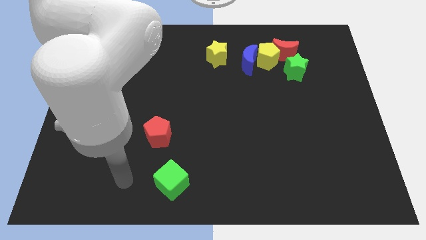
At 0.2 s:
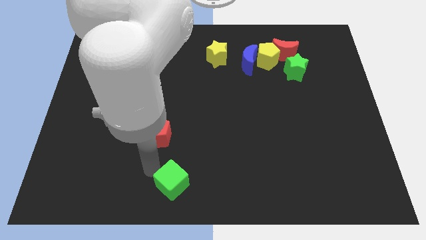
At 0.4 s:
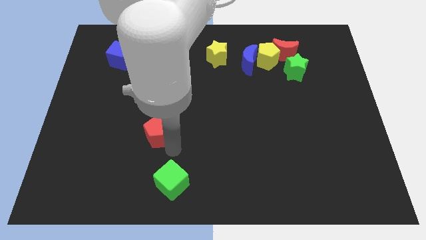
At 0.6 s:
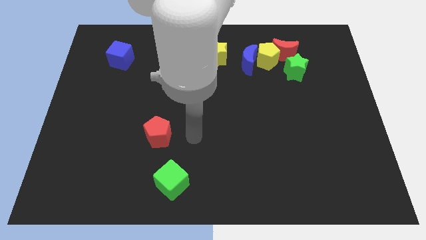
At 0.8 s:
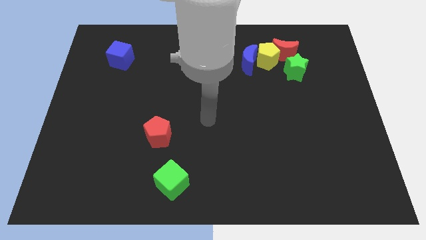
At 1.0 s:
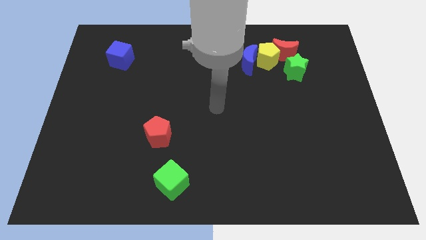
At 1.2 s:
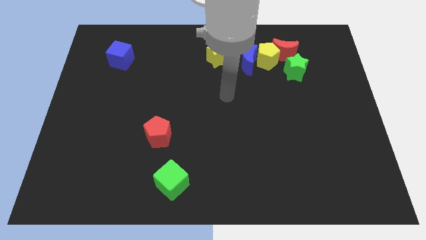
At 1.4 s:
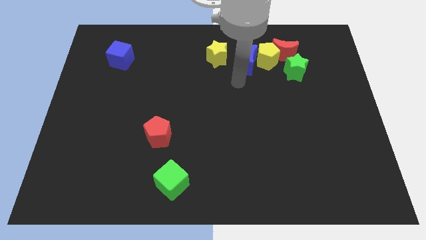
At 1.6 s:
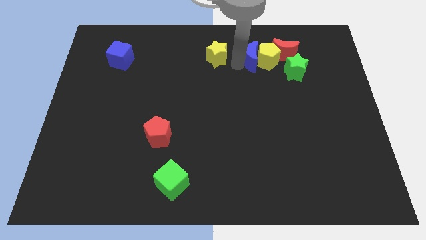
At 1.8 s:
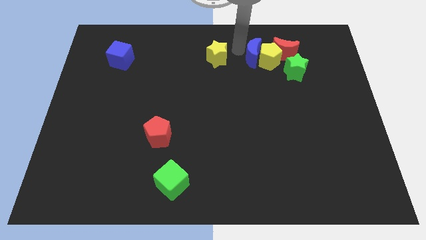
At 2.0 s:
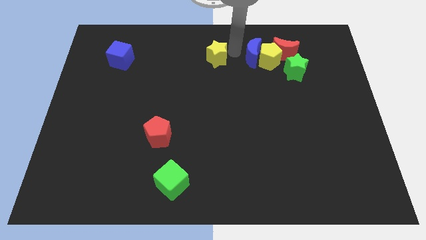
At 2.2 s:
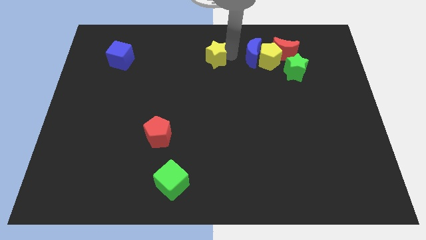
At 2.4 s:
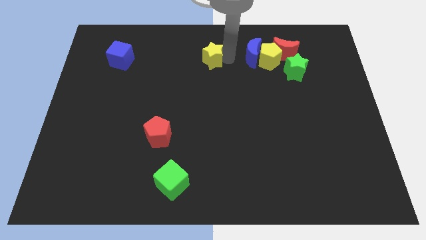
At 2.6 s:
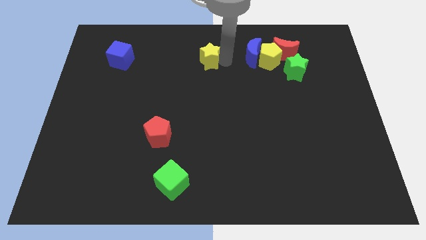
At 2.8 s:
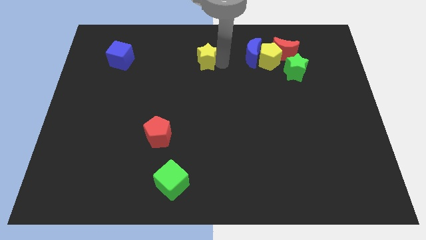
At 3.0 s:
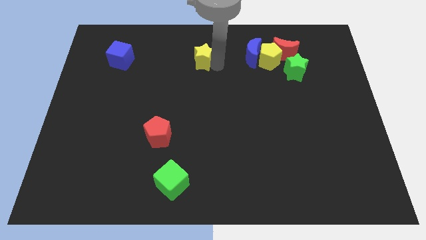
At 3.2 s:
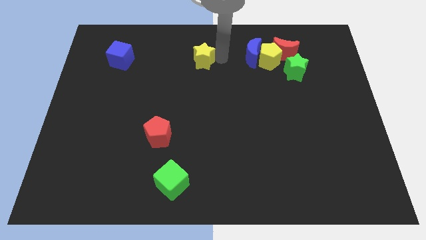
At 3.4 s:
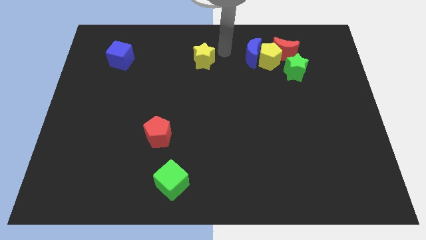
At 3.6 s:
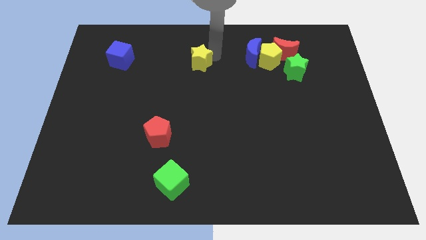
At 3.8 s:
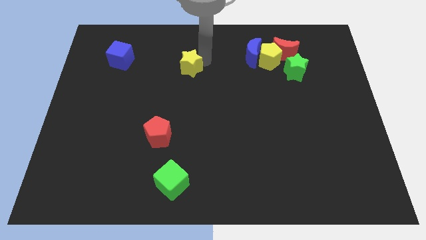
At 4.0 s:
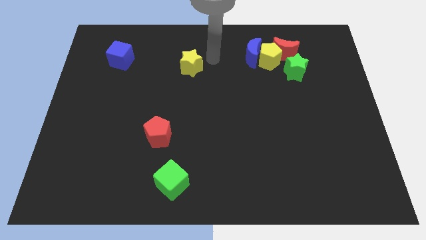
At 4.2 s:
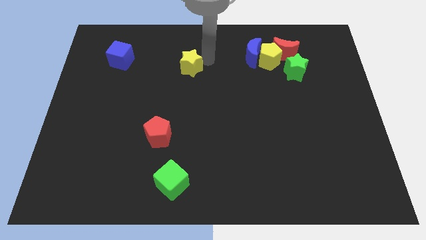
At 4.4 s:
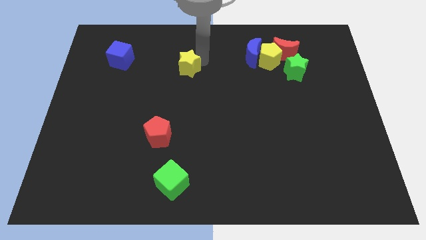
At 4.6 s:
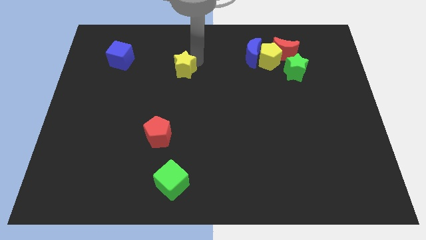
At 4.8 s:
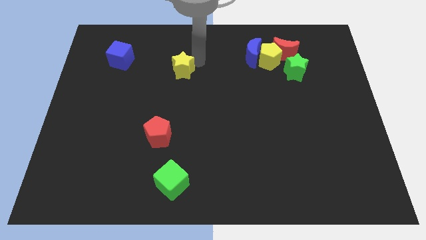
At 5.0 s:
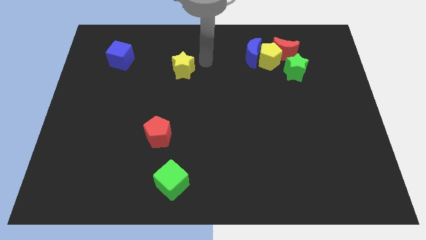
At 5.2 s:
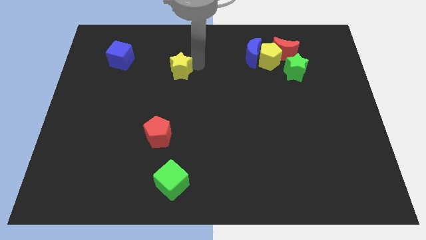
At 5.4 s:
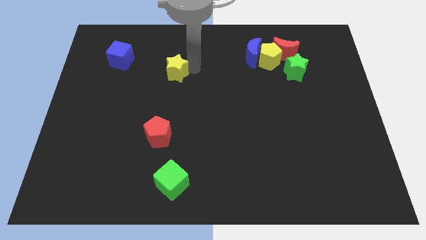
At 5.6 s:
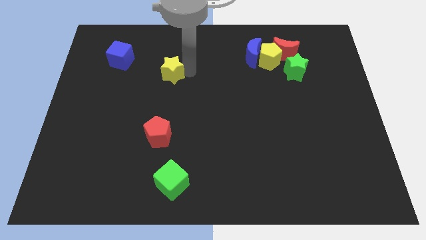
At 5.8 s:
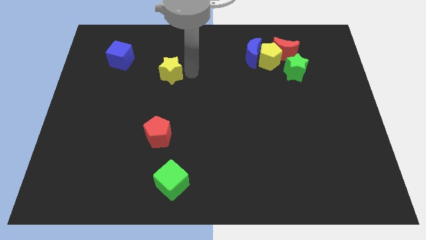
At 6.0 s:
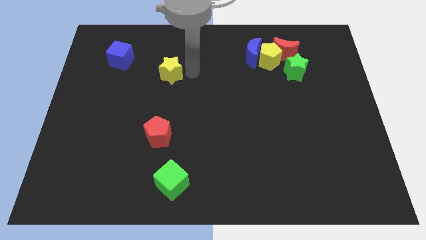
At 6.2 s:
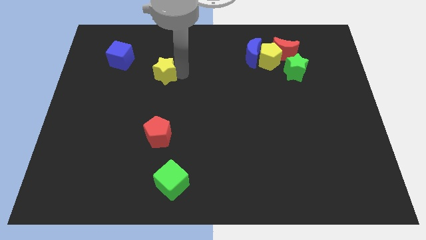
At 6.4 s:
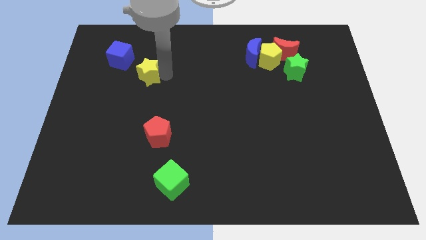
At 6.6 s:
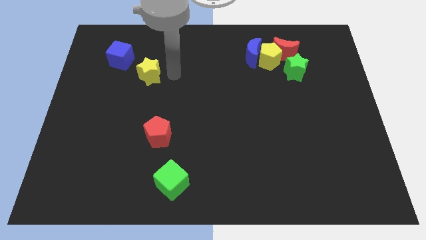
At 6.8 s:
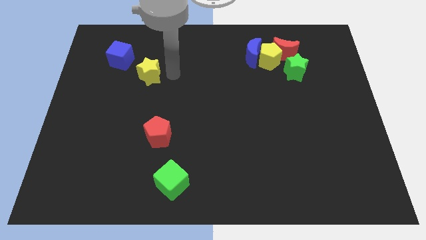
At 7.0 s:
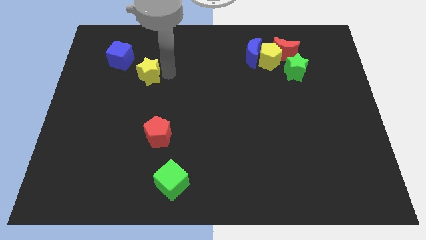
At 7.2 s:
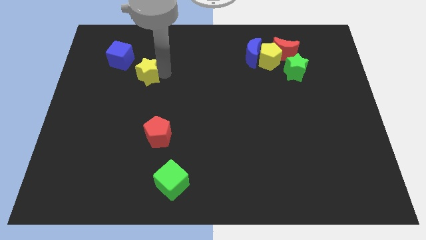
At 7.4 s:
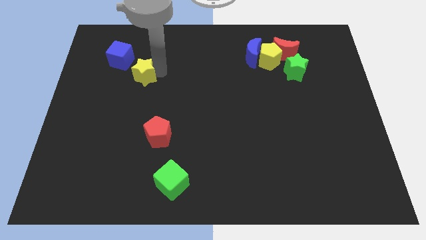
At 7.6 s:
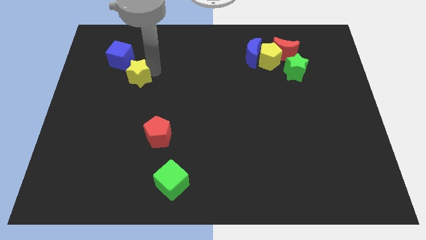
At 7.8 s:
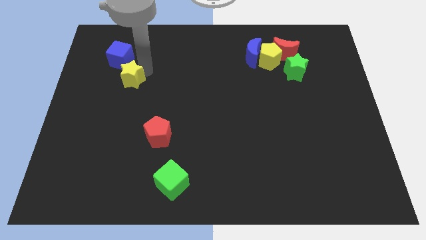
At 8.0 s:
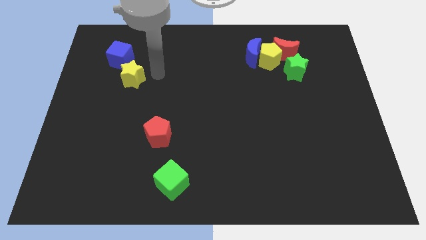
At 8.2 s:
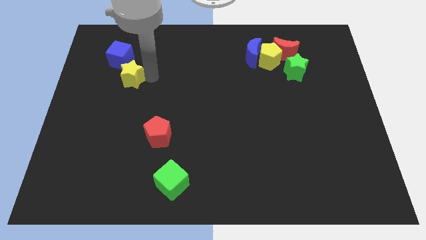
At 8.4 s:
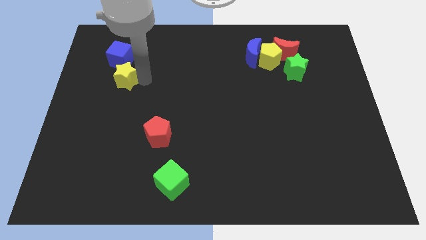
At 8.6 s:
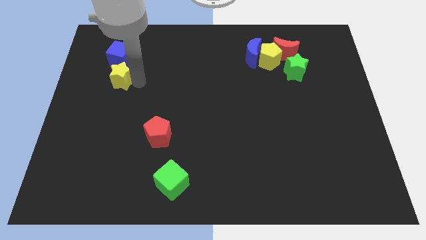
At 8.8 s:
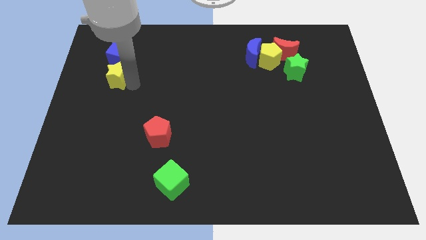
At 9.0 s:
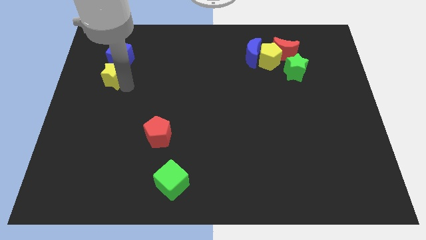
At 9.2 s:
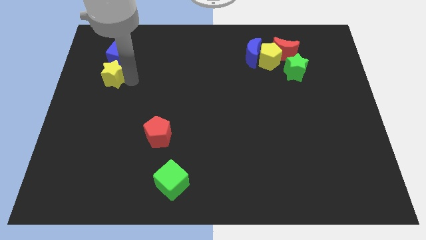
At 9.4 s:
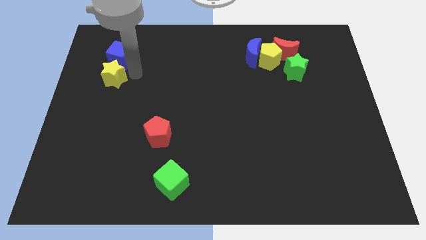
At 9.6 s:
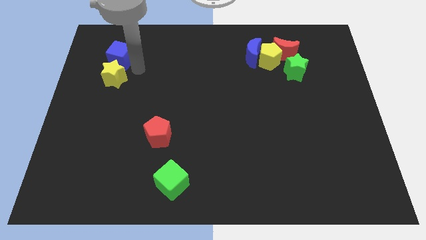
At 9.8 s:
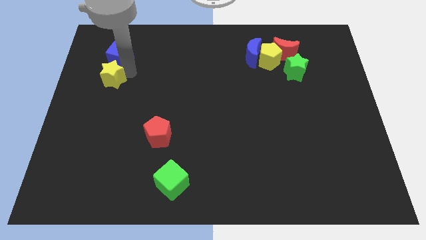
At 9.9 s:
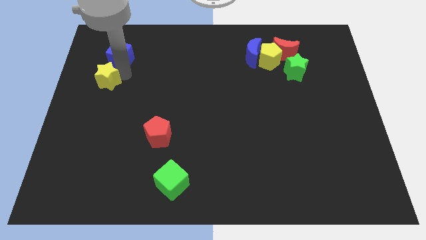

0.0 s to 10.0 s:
push the yellow star to the left side of the board

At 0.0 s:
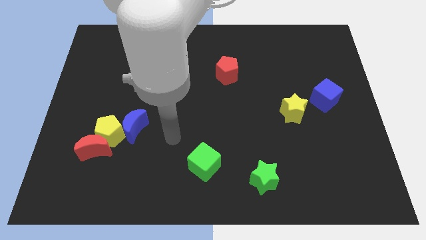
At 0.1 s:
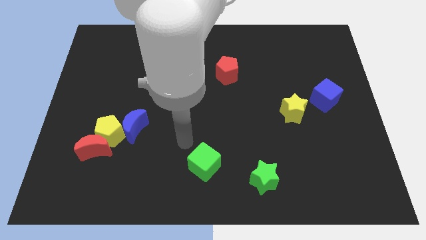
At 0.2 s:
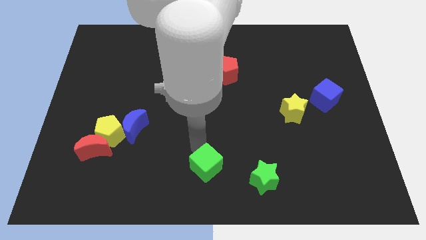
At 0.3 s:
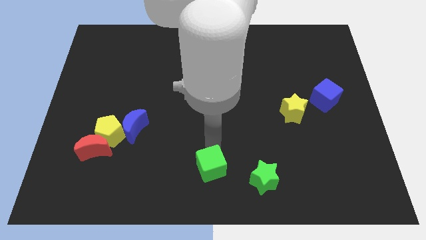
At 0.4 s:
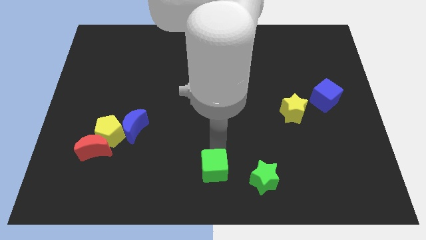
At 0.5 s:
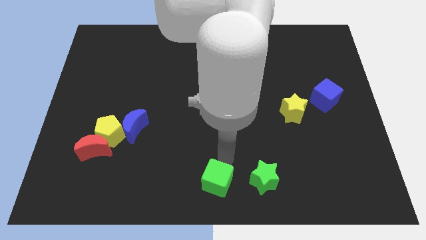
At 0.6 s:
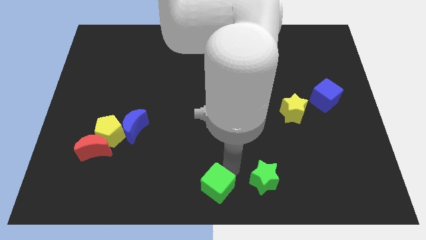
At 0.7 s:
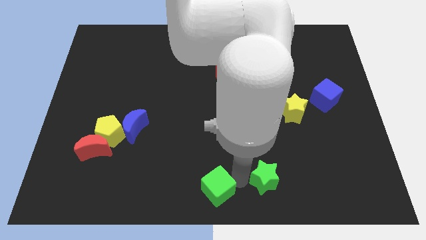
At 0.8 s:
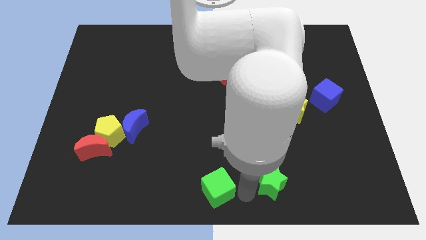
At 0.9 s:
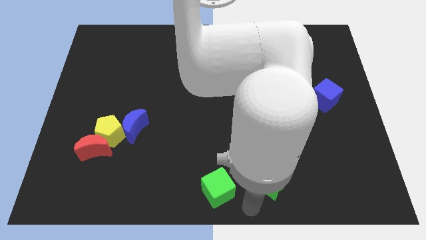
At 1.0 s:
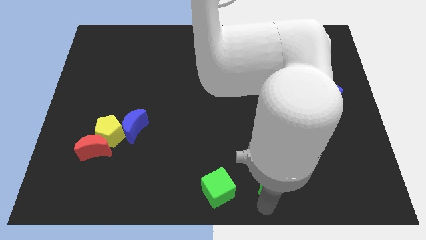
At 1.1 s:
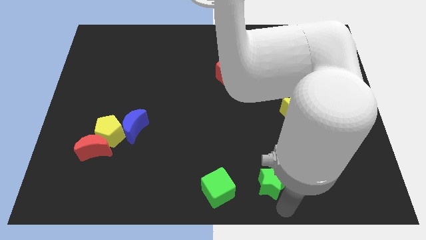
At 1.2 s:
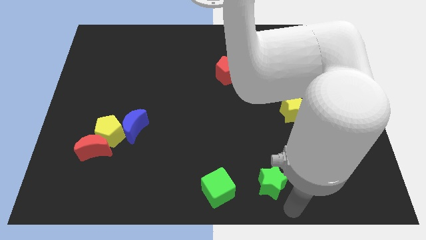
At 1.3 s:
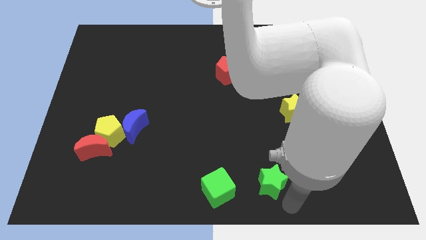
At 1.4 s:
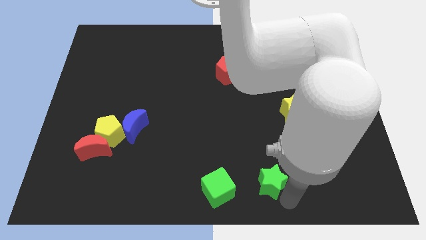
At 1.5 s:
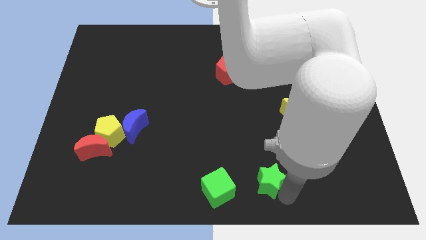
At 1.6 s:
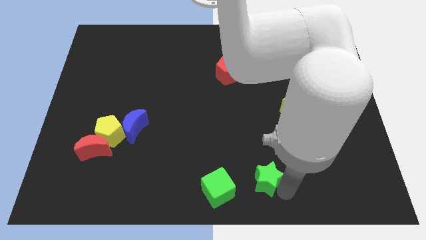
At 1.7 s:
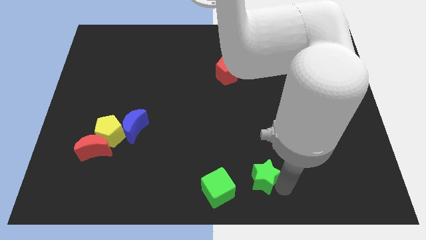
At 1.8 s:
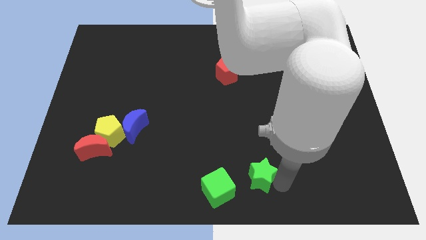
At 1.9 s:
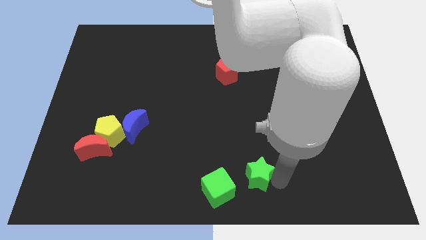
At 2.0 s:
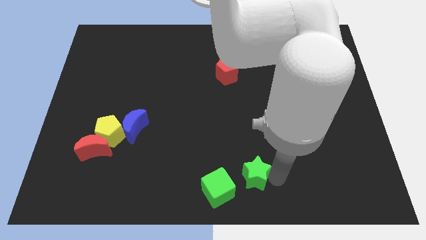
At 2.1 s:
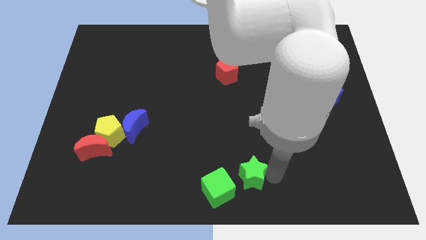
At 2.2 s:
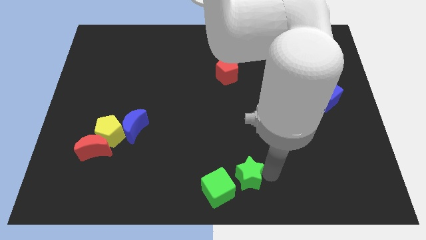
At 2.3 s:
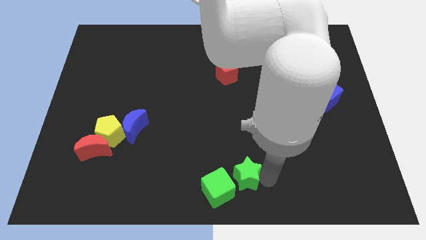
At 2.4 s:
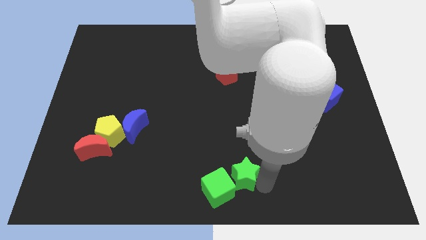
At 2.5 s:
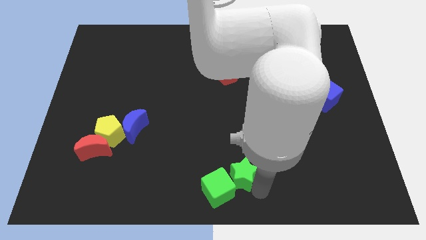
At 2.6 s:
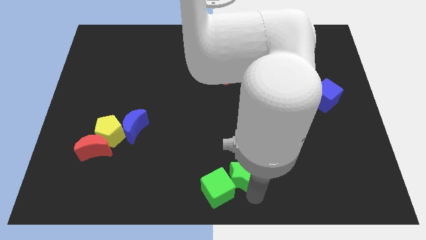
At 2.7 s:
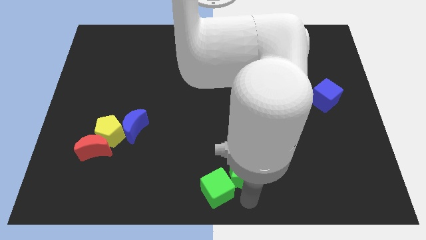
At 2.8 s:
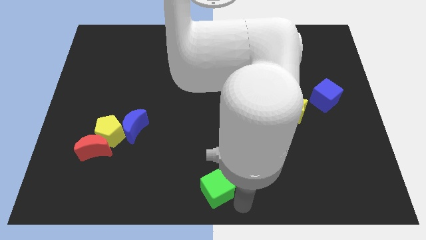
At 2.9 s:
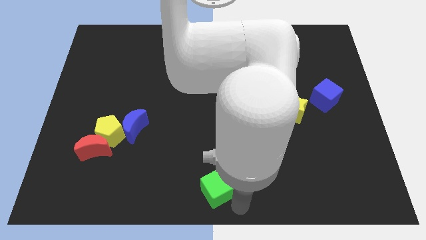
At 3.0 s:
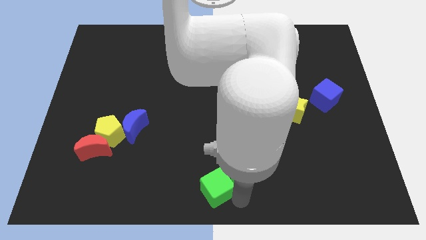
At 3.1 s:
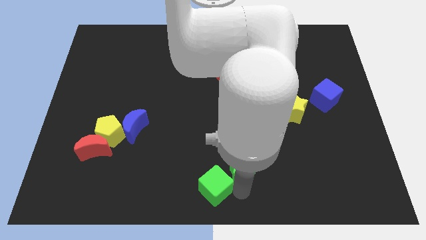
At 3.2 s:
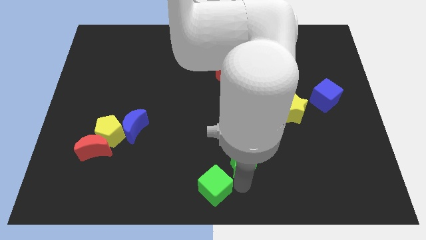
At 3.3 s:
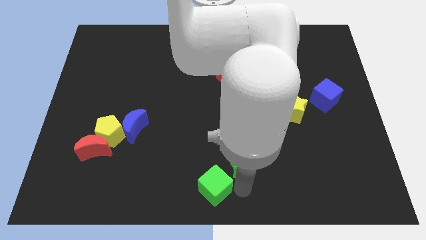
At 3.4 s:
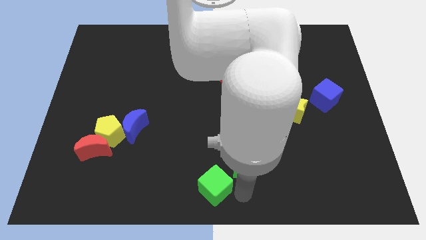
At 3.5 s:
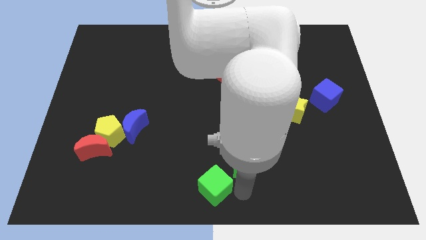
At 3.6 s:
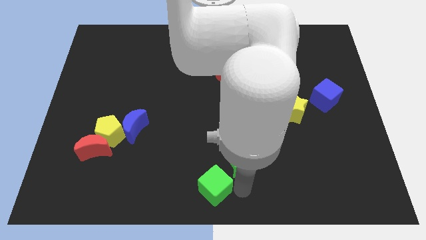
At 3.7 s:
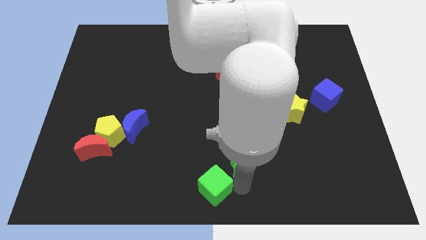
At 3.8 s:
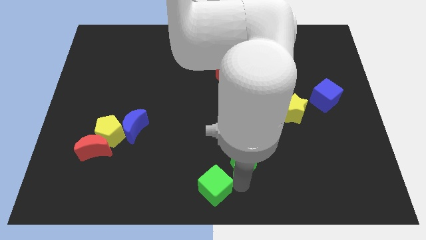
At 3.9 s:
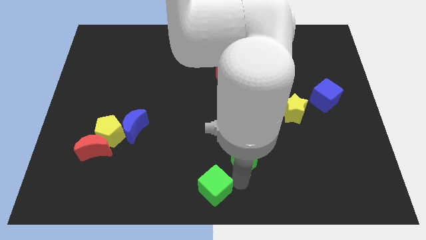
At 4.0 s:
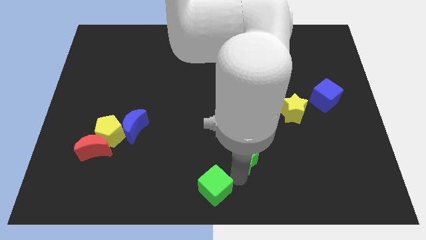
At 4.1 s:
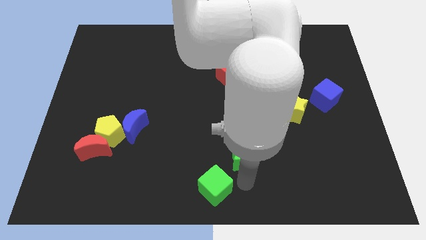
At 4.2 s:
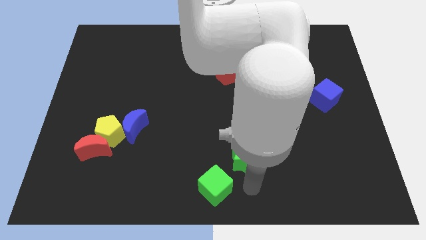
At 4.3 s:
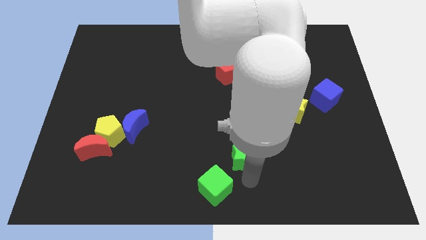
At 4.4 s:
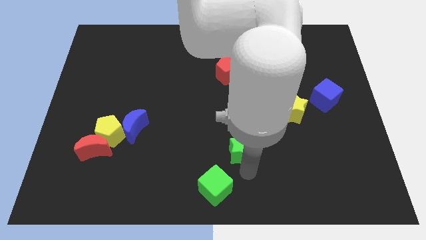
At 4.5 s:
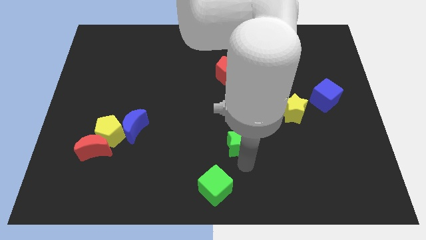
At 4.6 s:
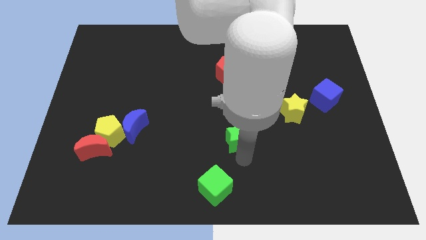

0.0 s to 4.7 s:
slide the green star to the center
